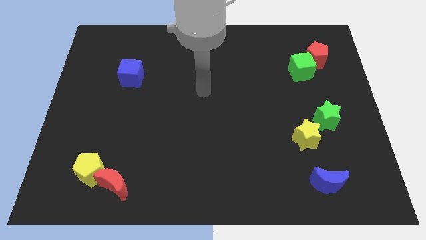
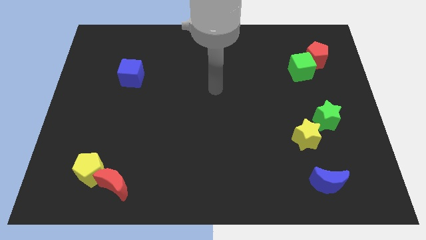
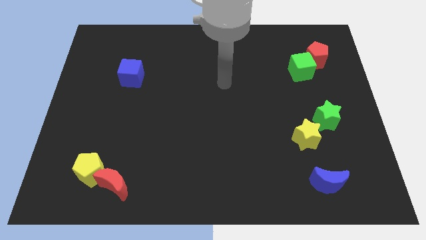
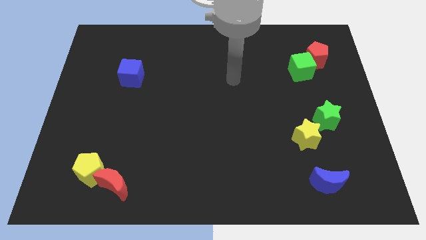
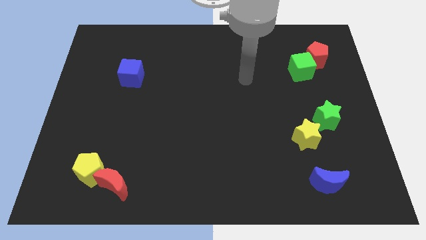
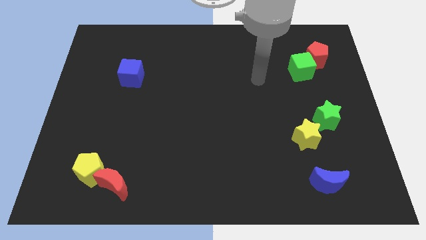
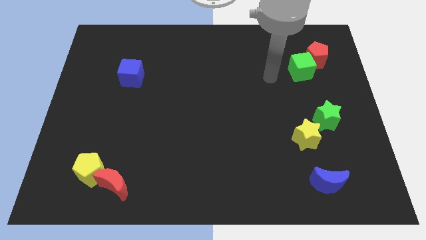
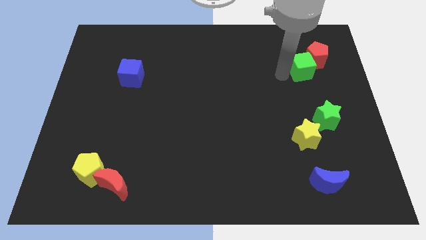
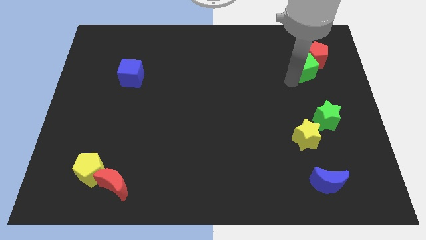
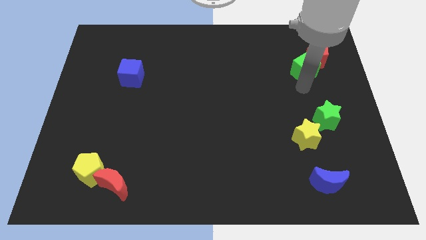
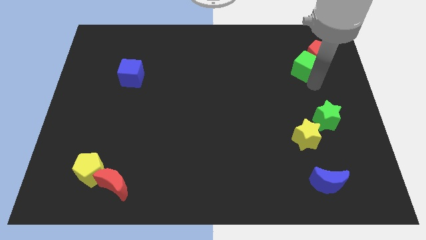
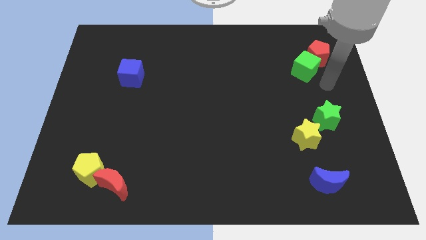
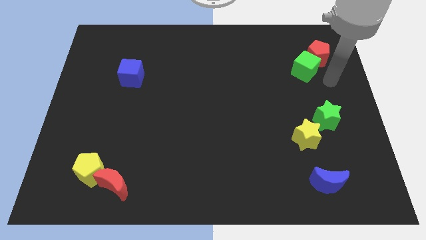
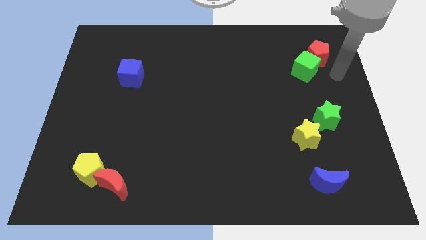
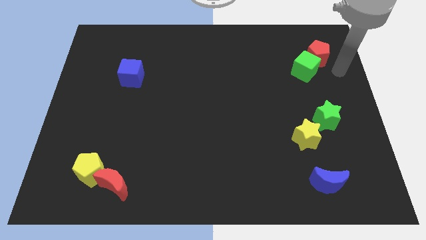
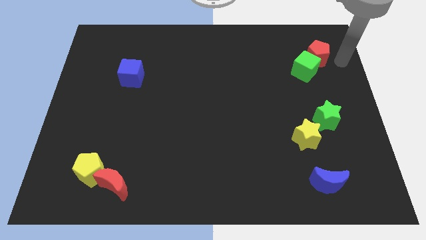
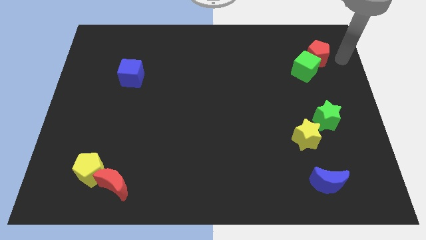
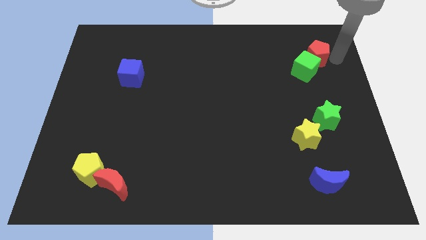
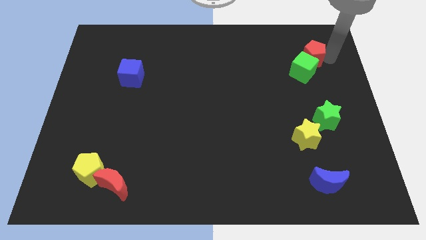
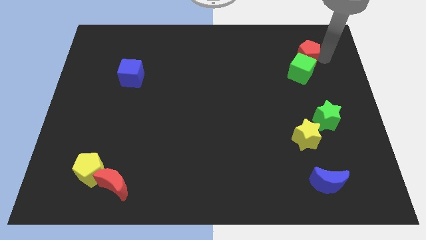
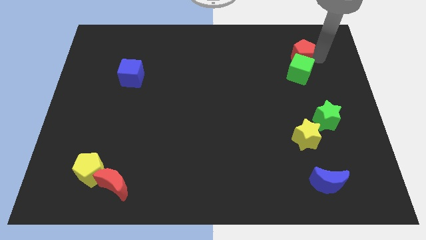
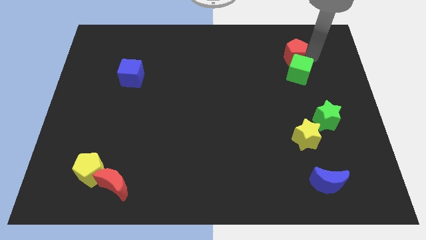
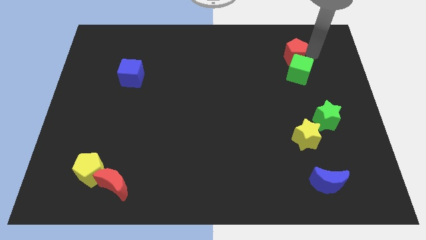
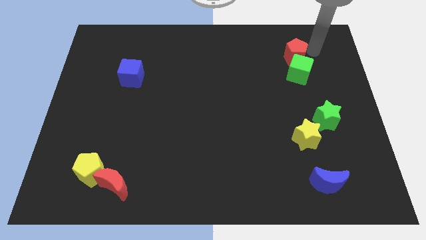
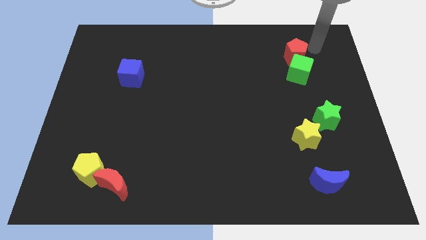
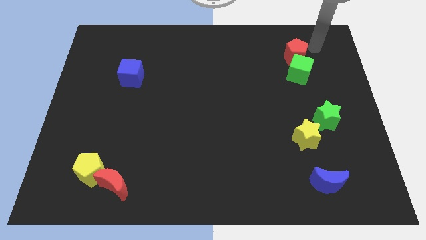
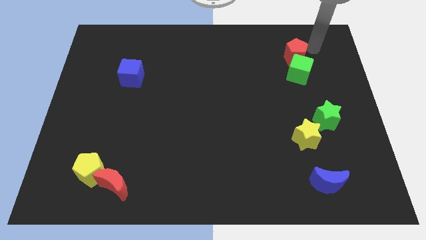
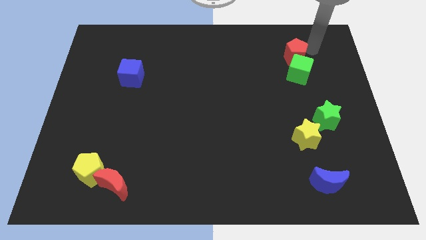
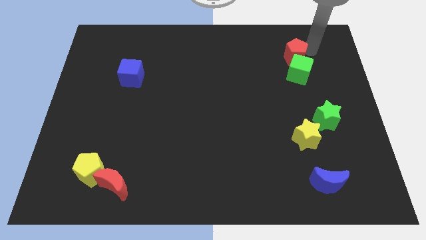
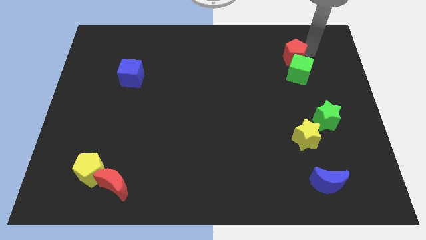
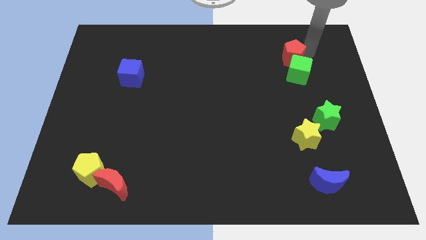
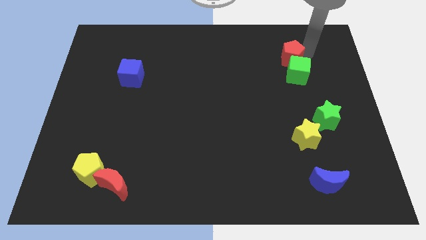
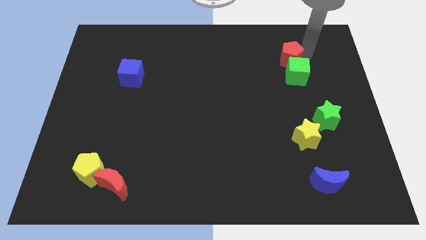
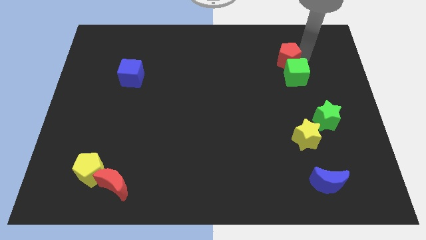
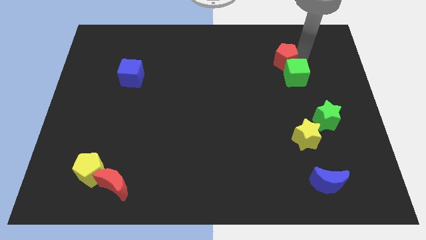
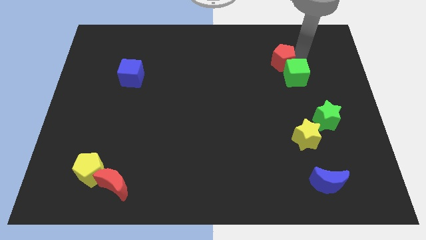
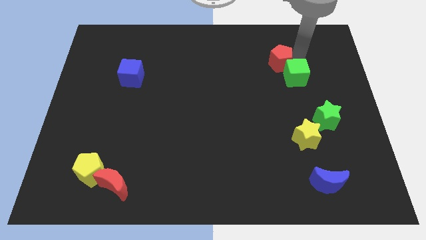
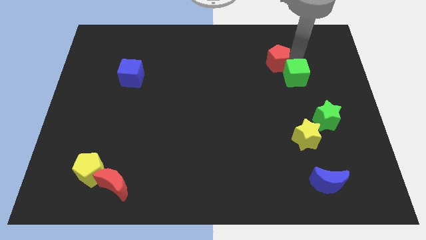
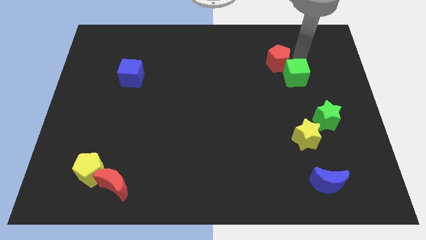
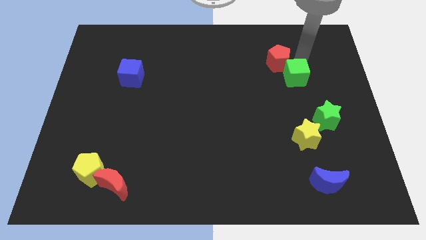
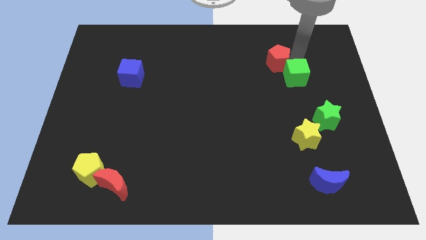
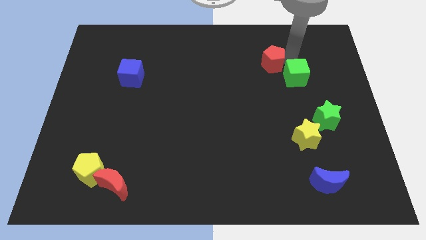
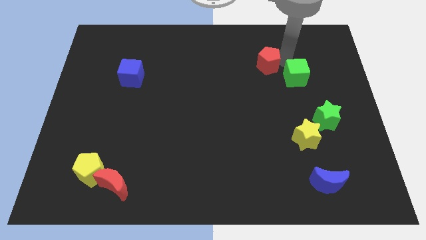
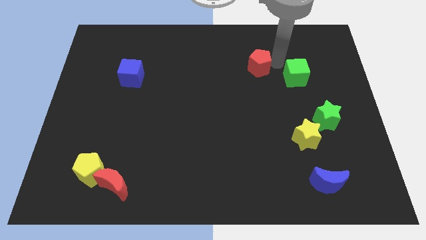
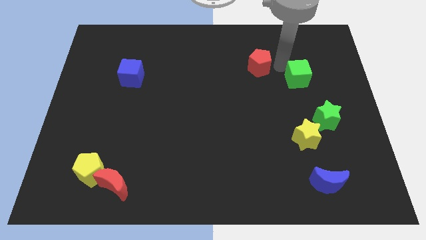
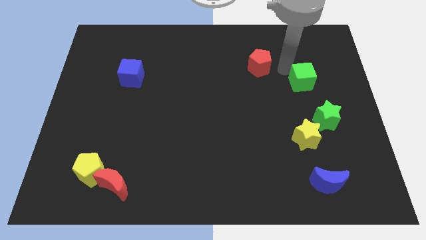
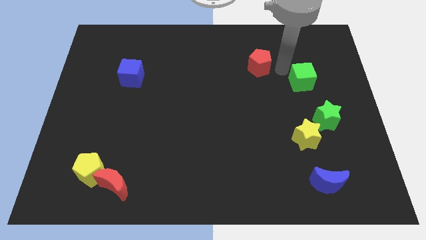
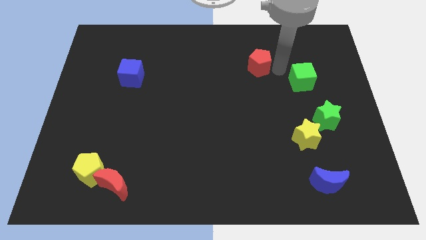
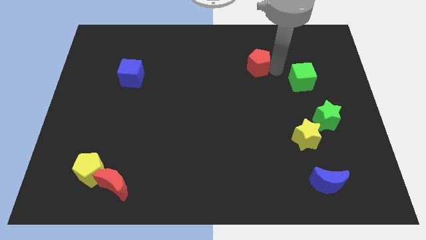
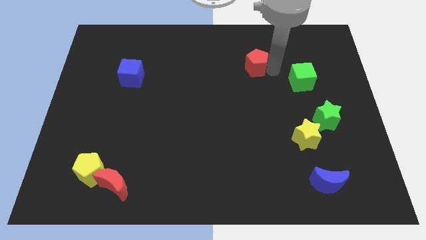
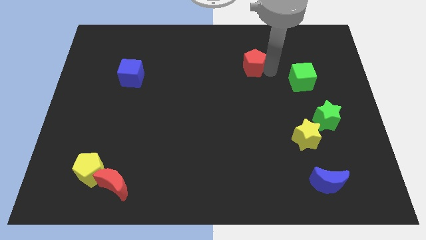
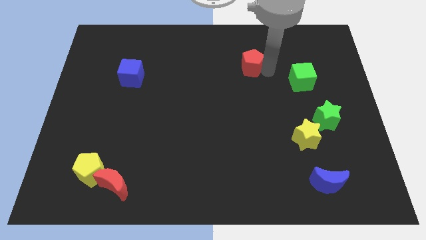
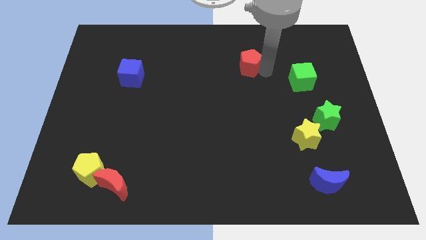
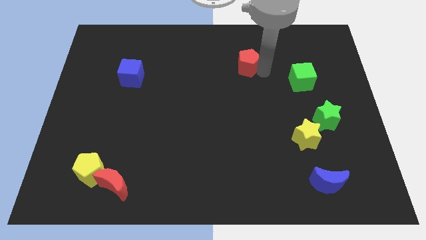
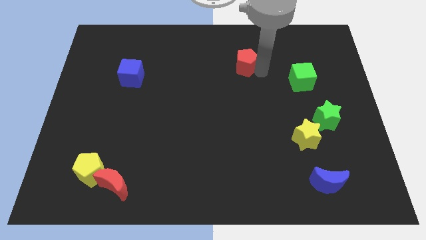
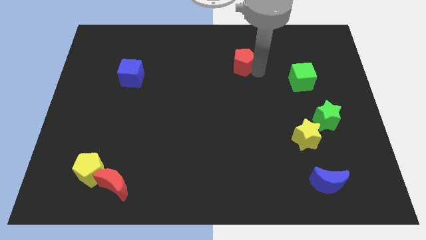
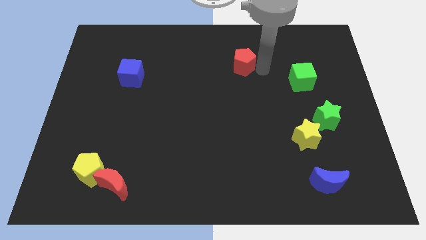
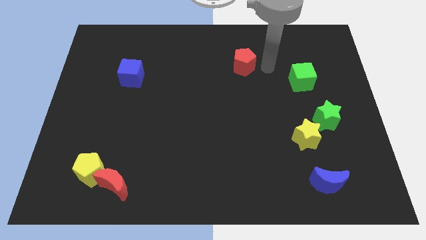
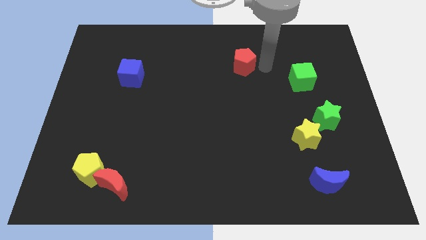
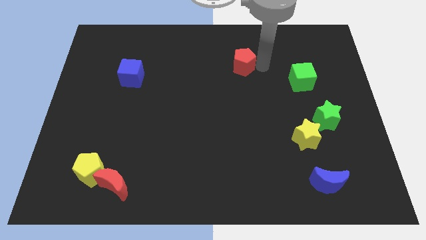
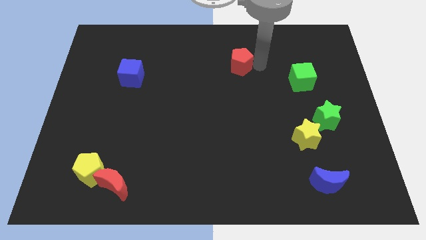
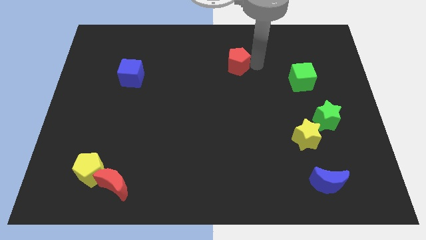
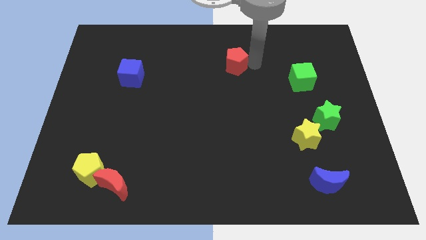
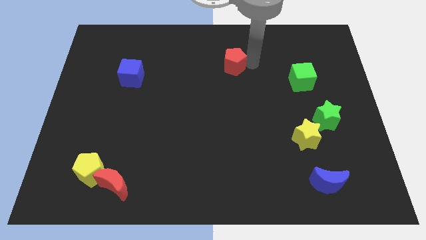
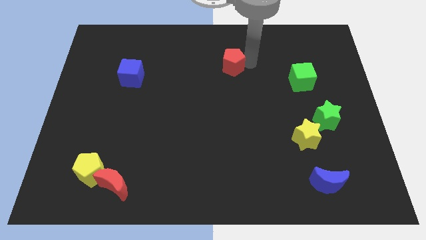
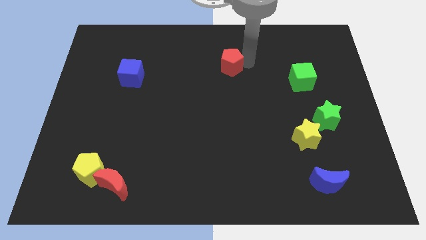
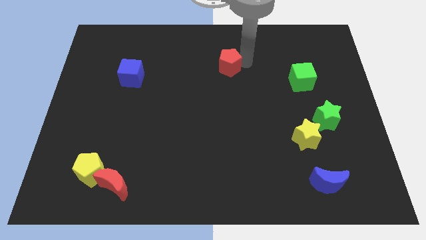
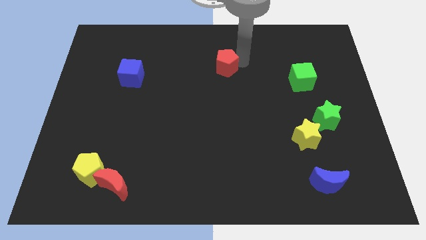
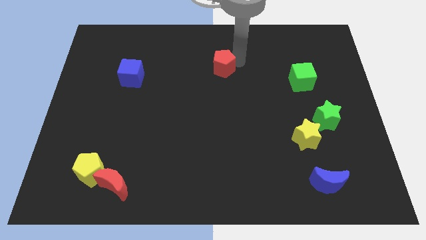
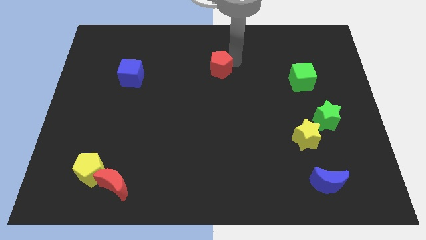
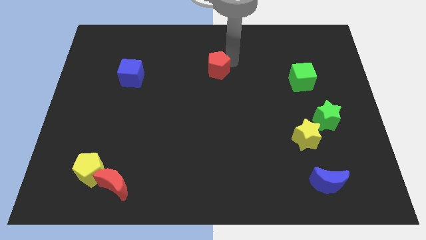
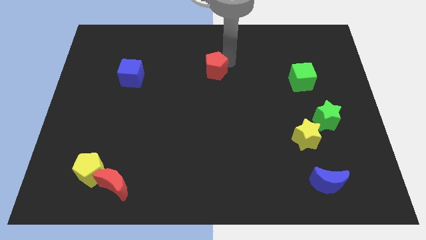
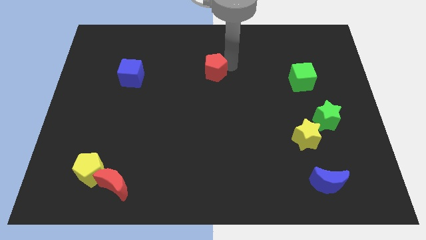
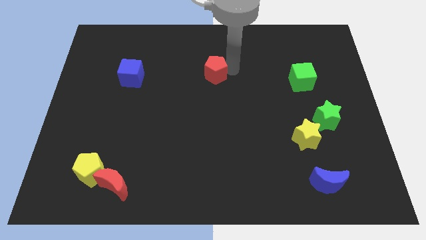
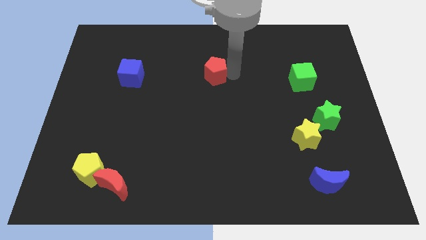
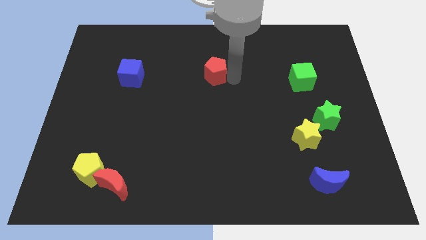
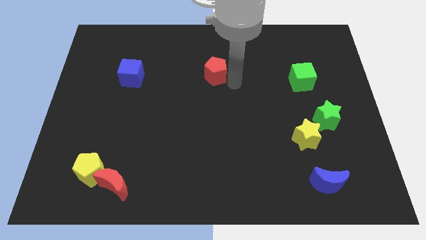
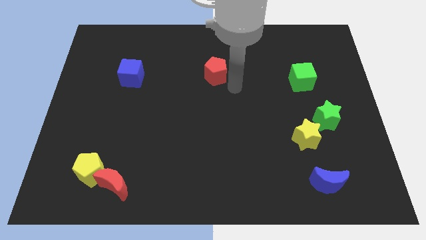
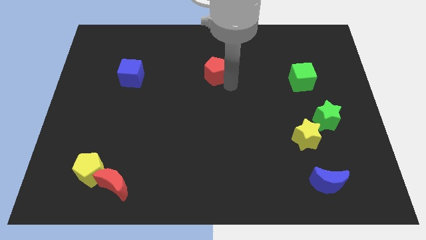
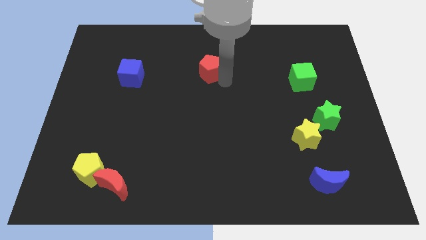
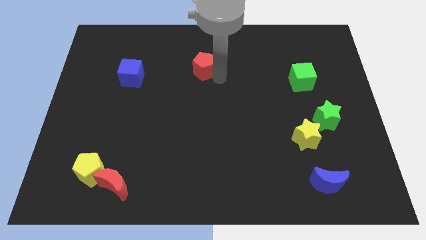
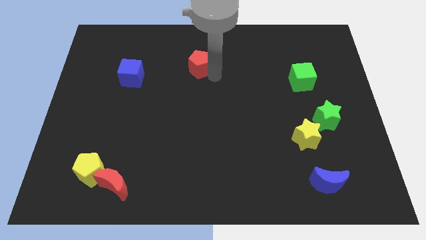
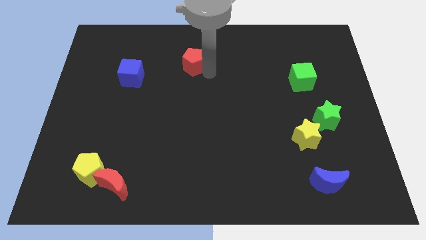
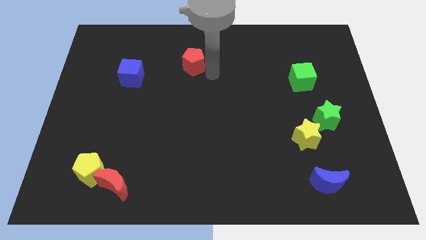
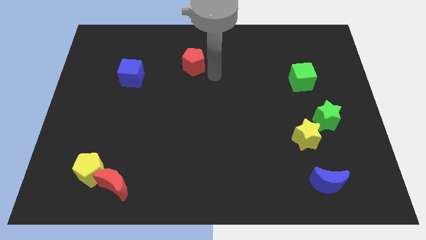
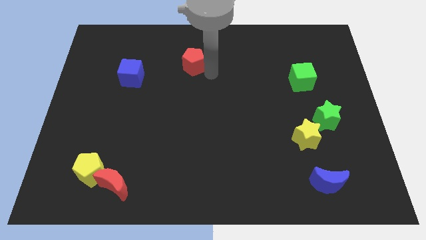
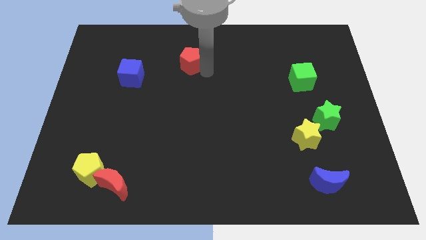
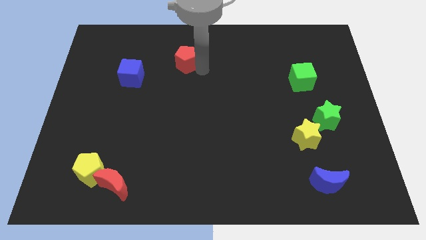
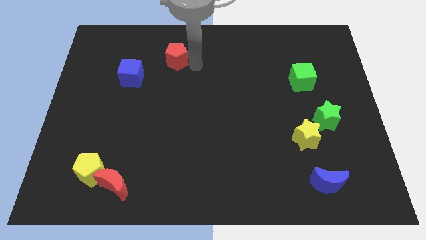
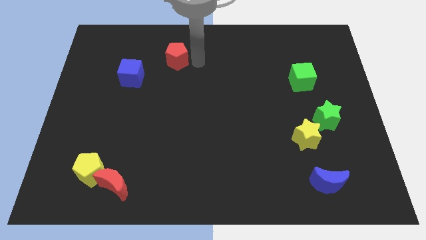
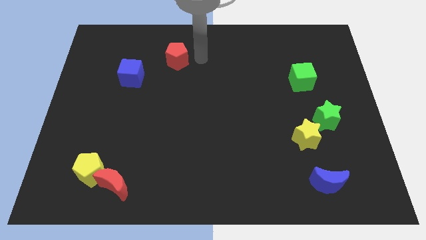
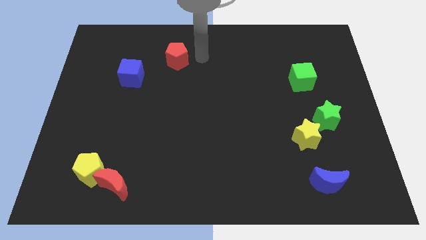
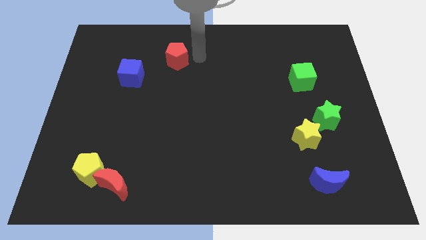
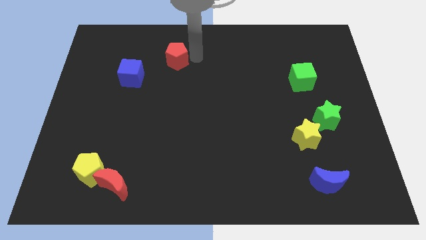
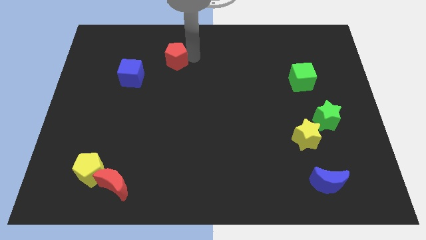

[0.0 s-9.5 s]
push the red pentagon to the top right side of the blue cube
